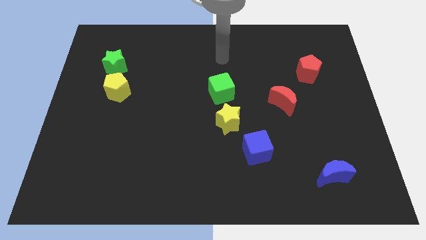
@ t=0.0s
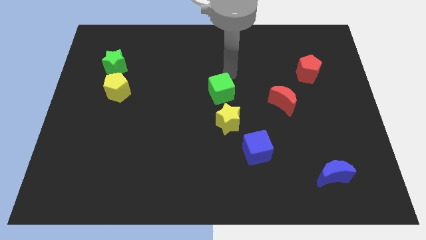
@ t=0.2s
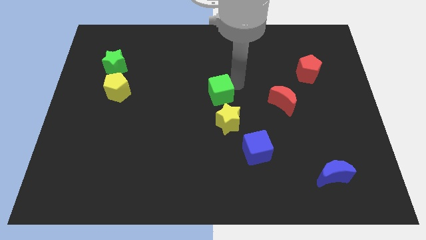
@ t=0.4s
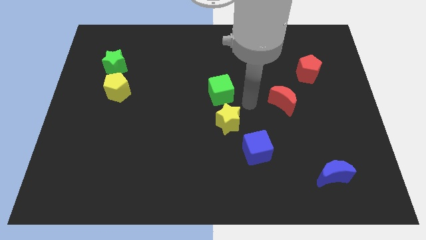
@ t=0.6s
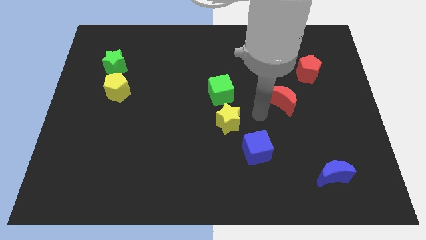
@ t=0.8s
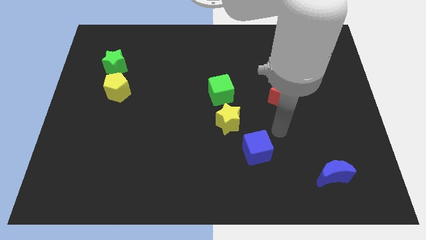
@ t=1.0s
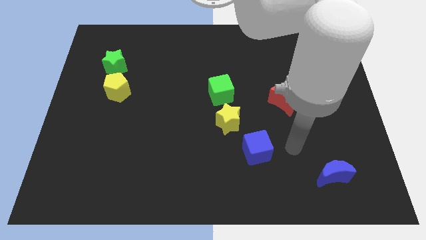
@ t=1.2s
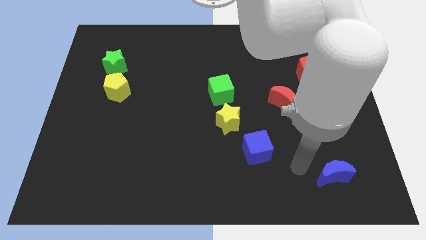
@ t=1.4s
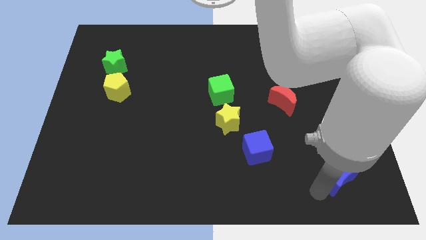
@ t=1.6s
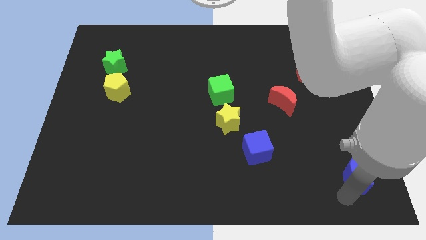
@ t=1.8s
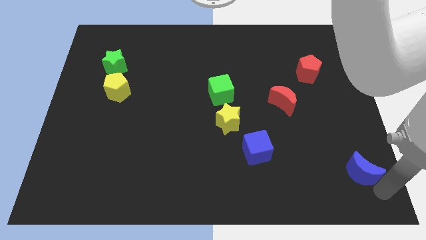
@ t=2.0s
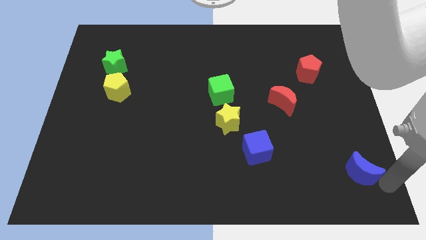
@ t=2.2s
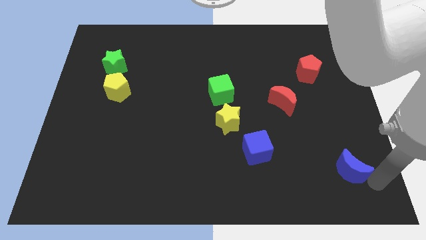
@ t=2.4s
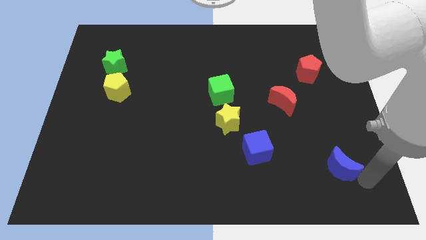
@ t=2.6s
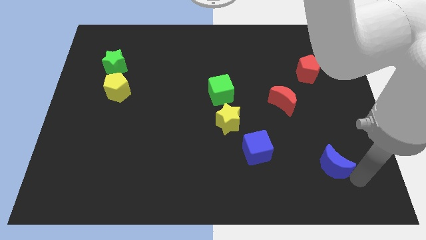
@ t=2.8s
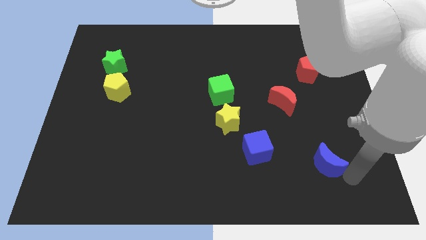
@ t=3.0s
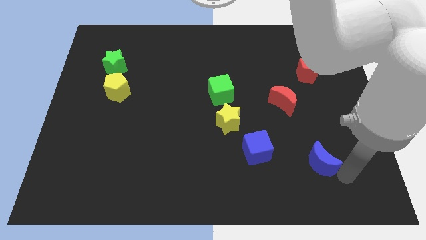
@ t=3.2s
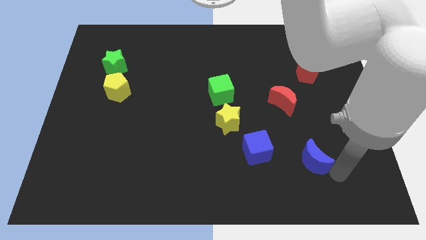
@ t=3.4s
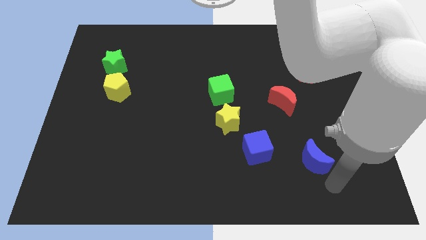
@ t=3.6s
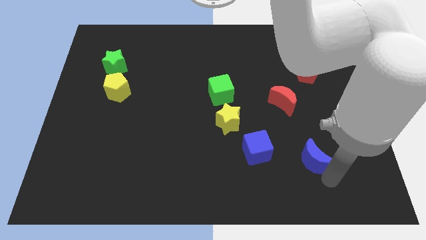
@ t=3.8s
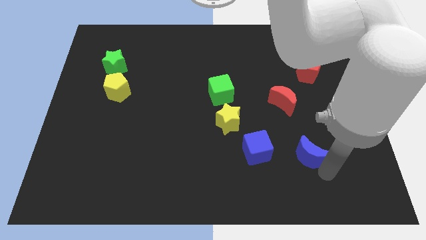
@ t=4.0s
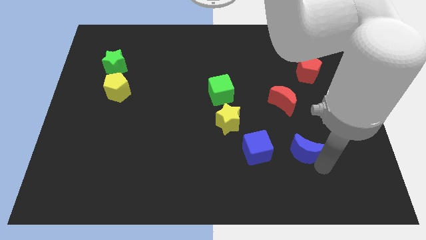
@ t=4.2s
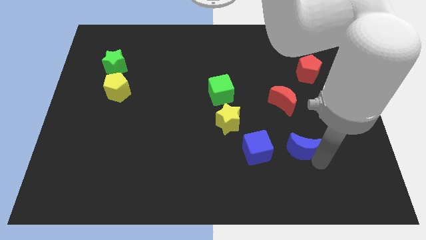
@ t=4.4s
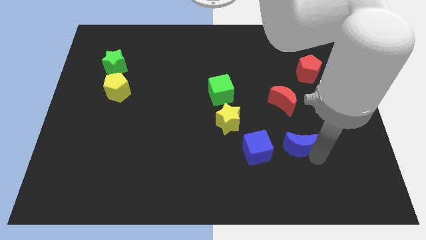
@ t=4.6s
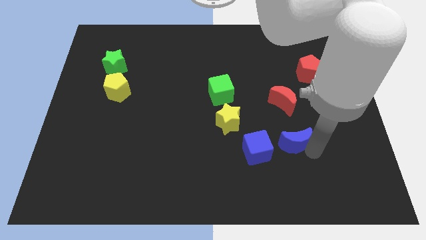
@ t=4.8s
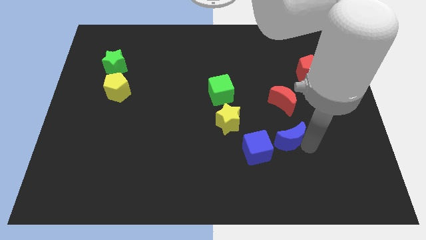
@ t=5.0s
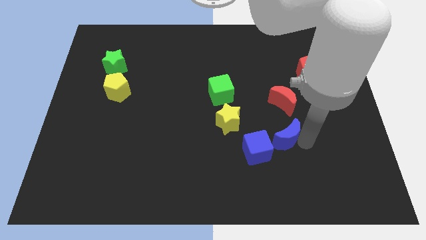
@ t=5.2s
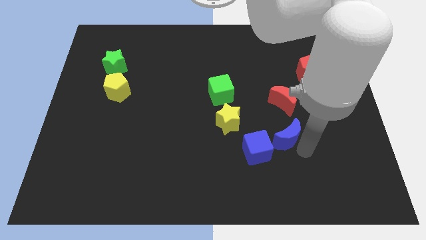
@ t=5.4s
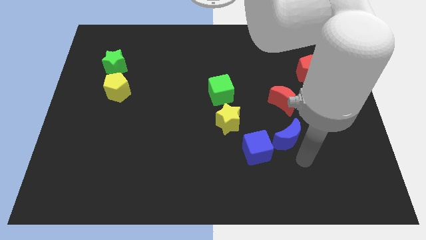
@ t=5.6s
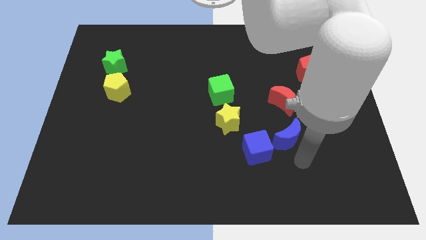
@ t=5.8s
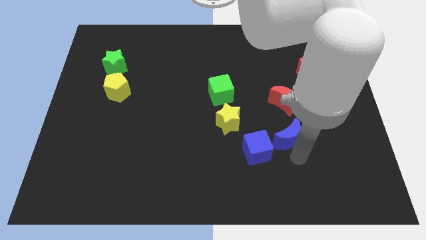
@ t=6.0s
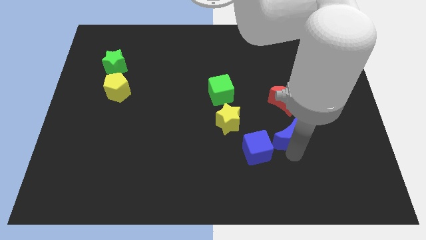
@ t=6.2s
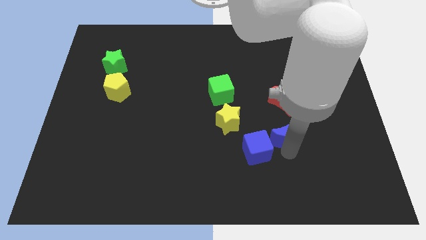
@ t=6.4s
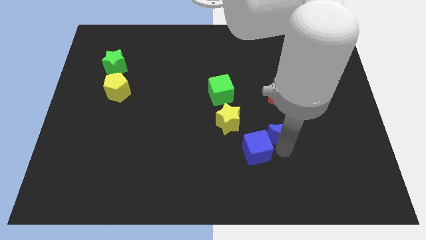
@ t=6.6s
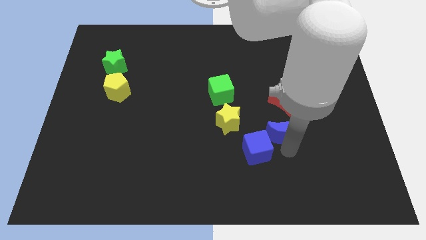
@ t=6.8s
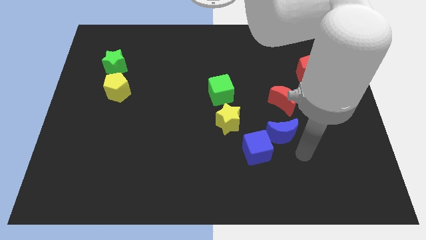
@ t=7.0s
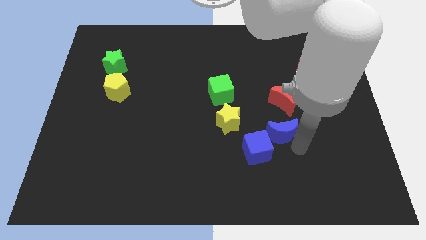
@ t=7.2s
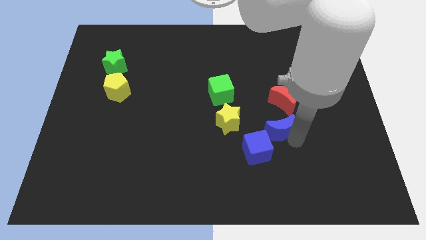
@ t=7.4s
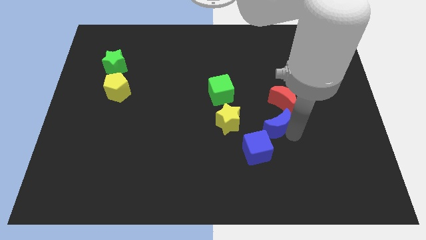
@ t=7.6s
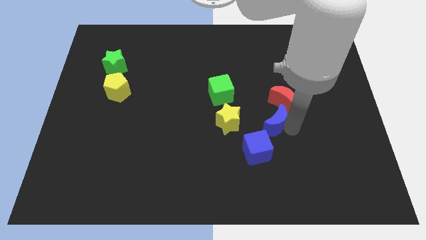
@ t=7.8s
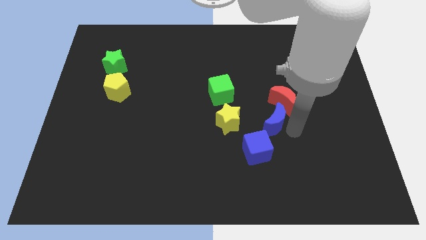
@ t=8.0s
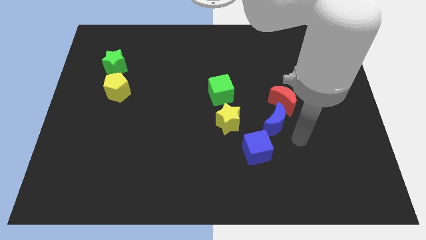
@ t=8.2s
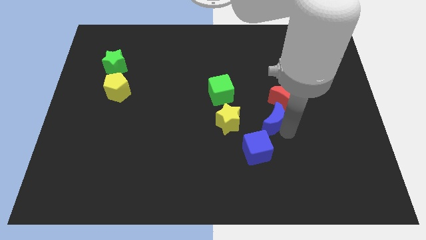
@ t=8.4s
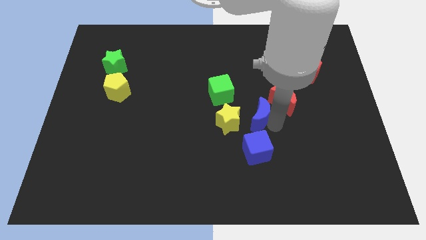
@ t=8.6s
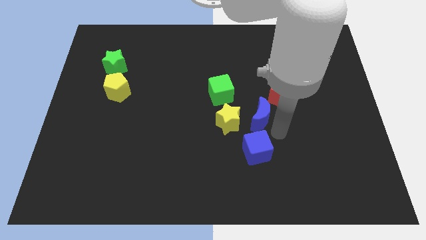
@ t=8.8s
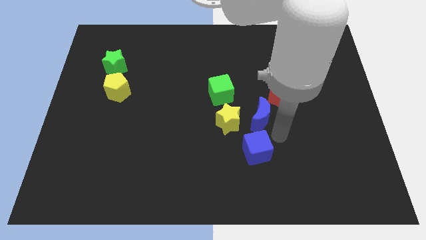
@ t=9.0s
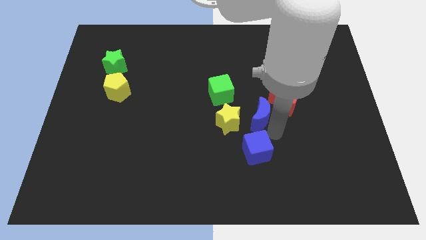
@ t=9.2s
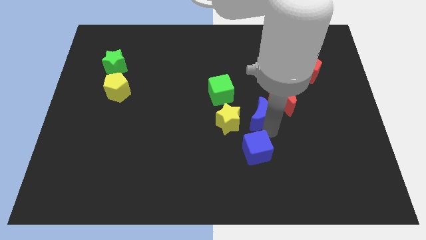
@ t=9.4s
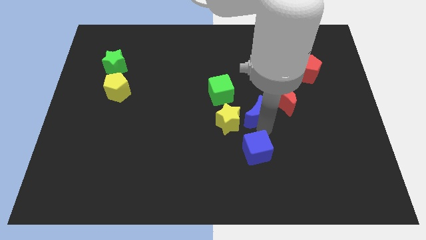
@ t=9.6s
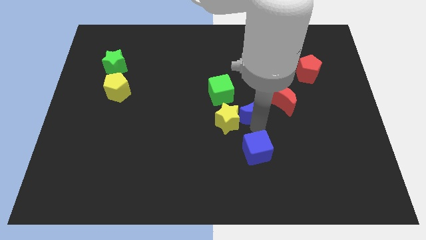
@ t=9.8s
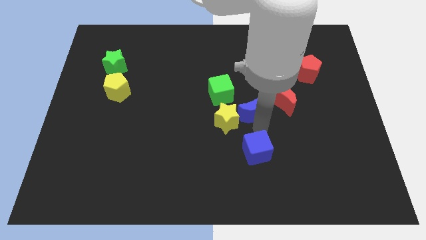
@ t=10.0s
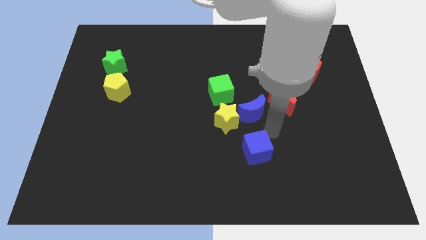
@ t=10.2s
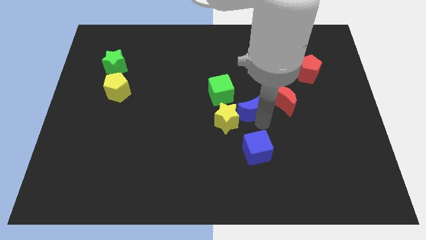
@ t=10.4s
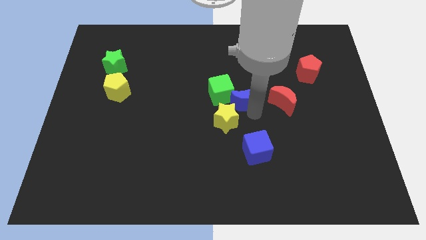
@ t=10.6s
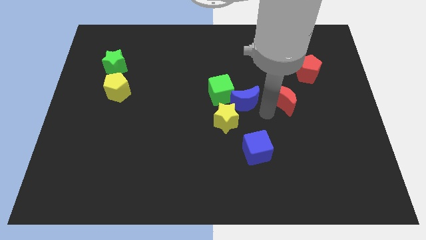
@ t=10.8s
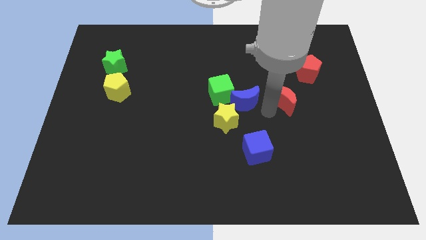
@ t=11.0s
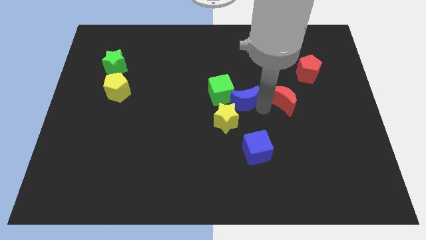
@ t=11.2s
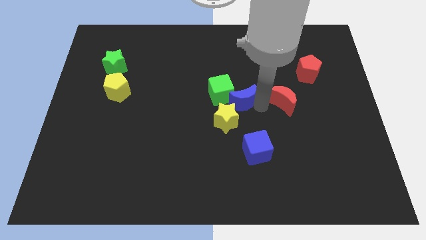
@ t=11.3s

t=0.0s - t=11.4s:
slide the blue moon next to the green cube
